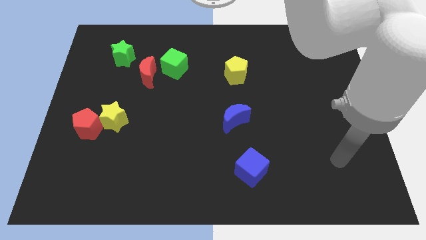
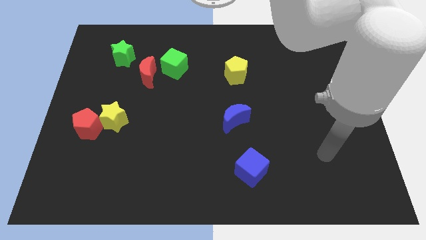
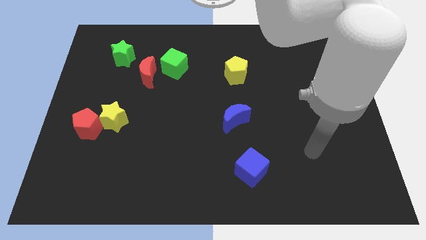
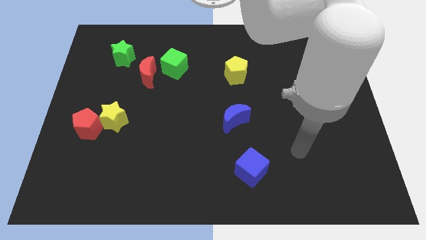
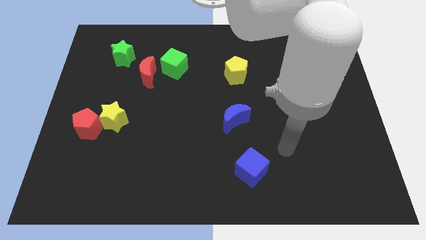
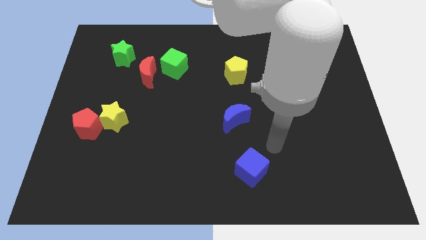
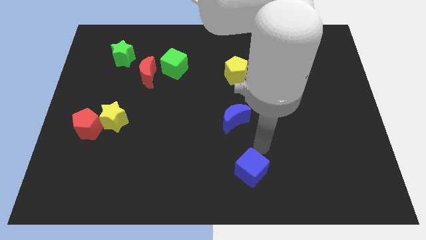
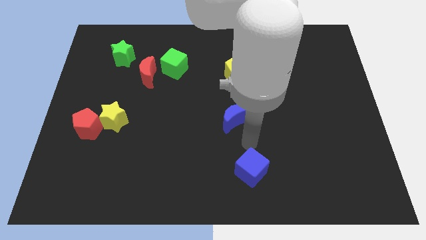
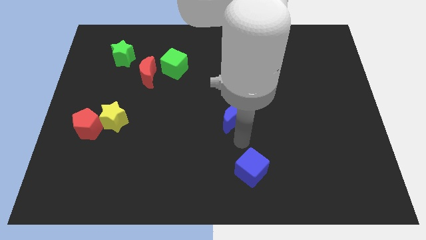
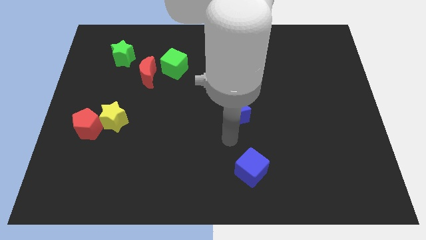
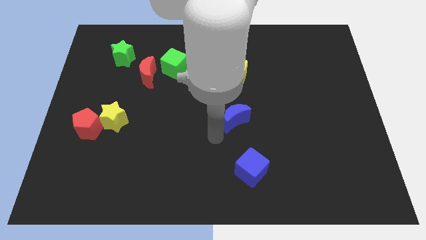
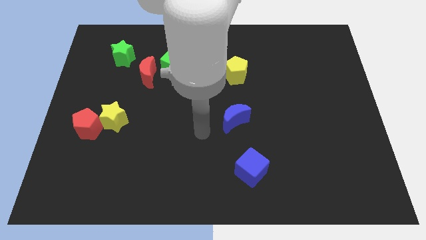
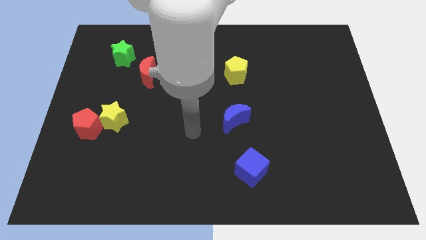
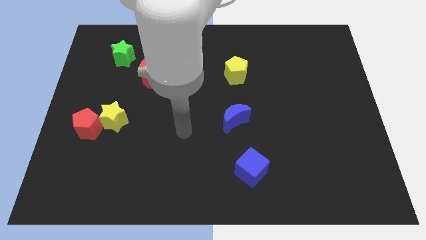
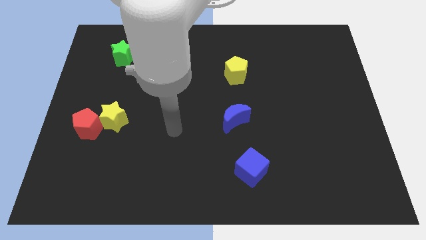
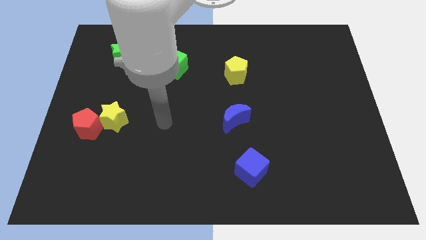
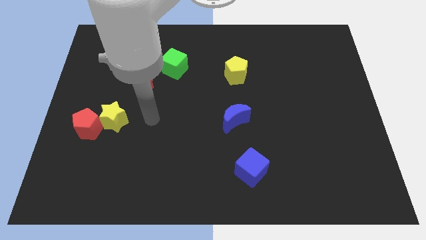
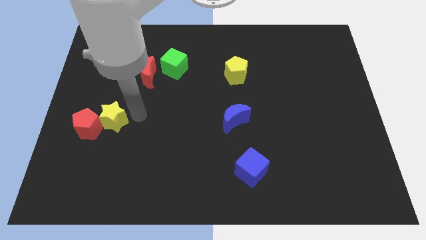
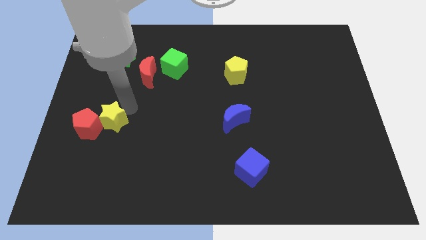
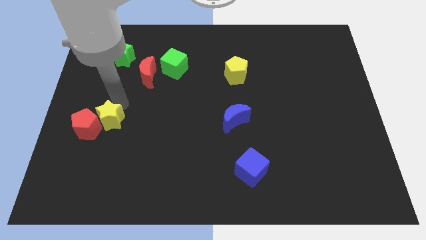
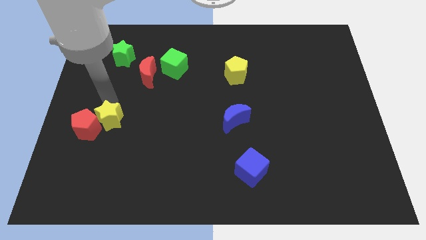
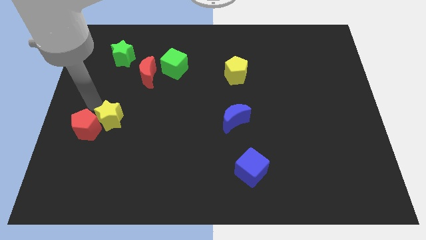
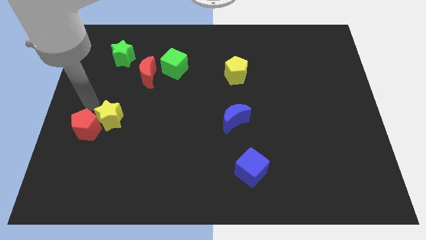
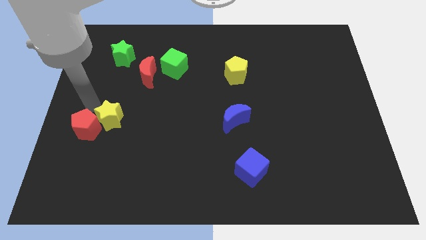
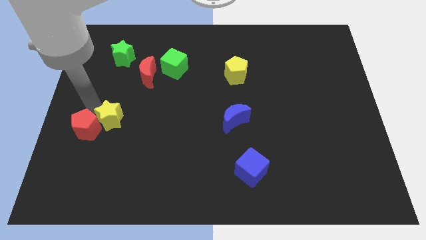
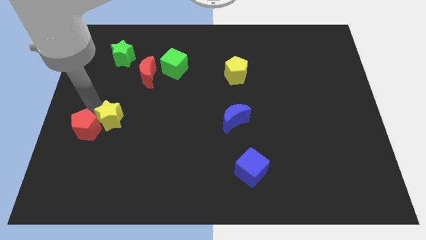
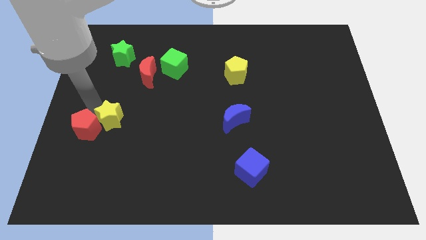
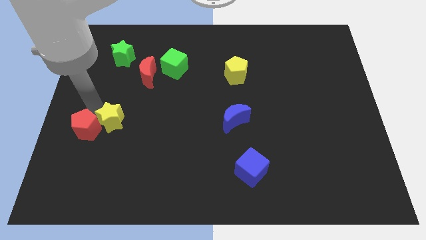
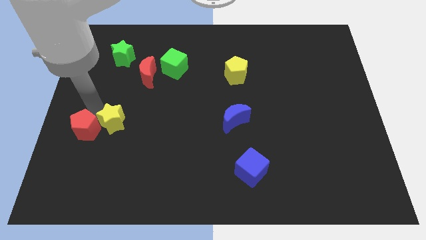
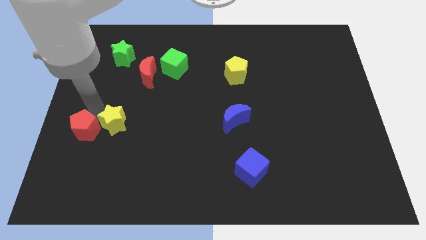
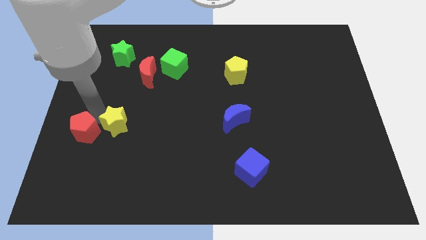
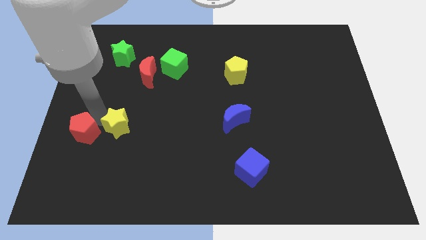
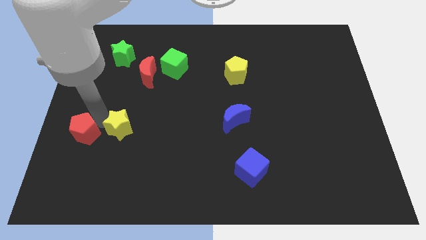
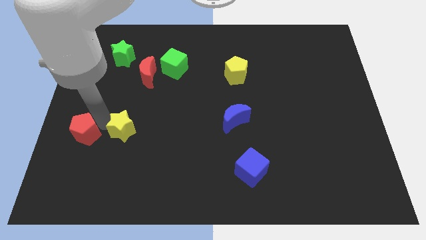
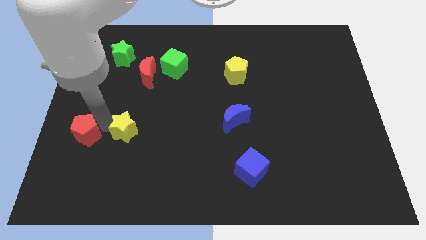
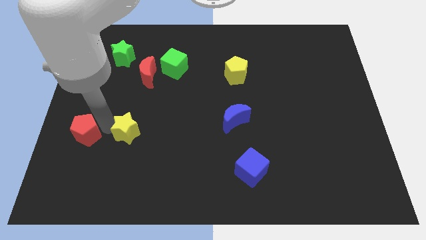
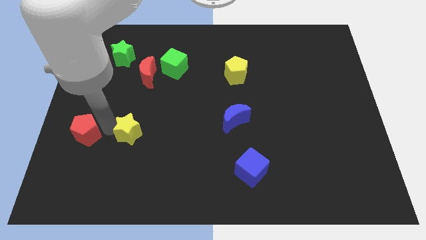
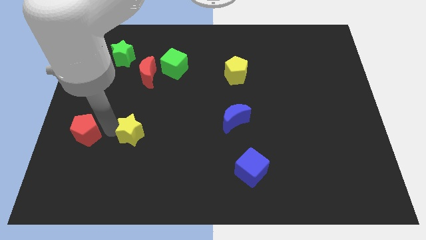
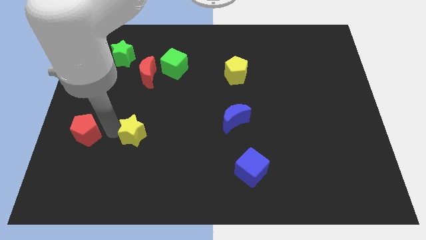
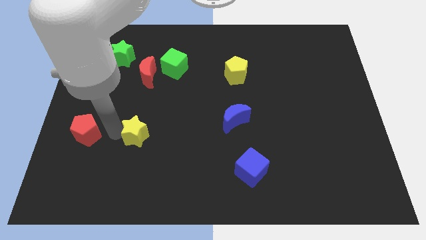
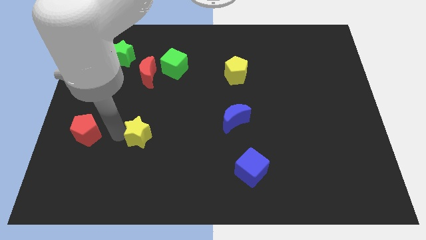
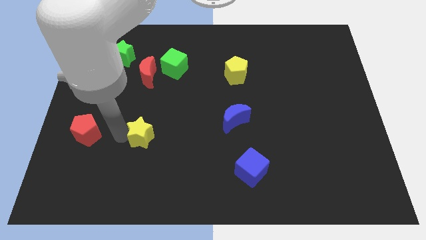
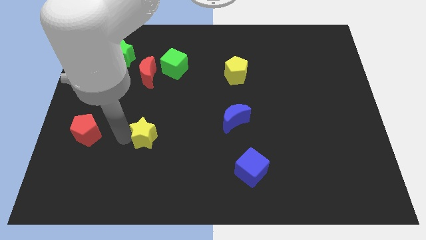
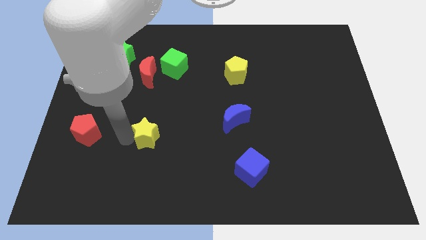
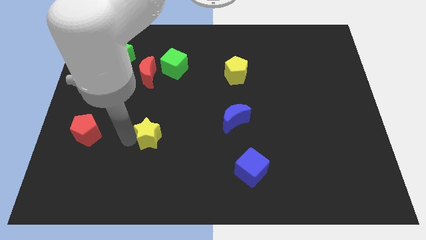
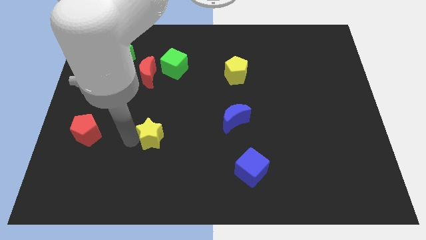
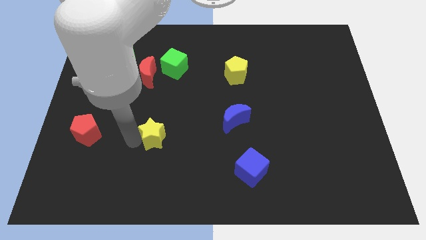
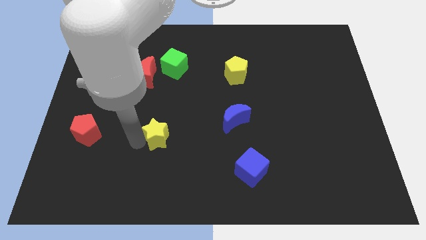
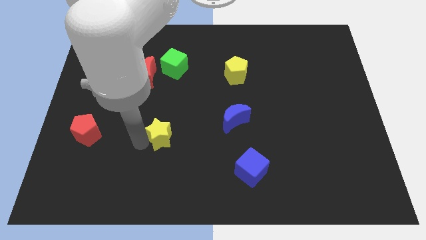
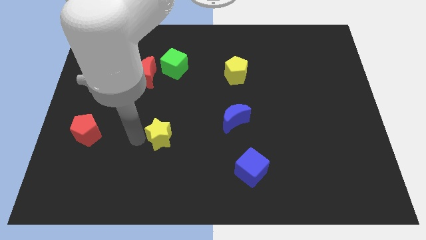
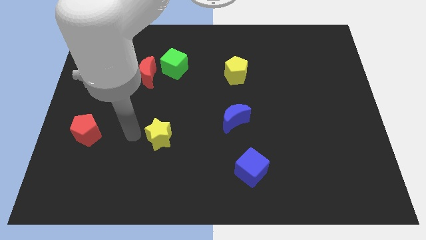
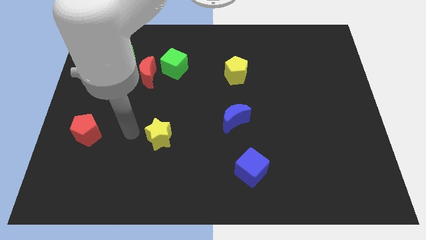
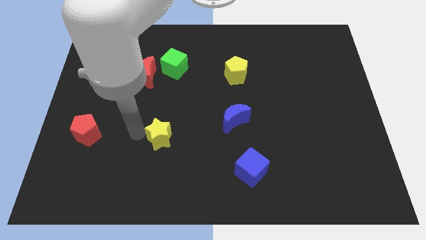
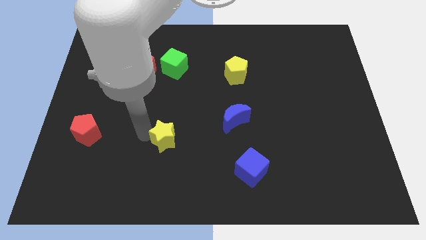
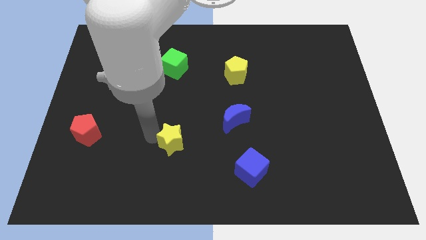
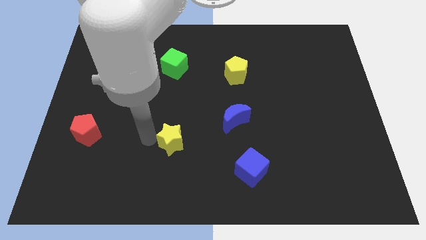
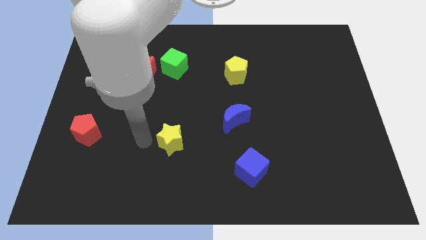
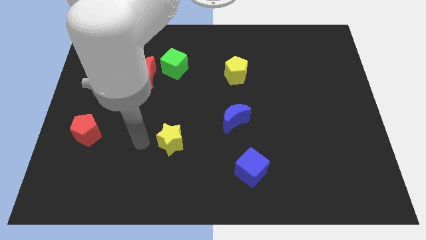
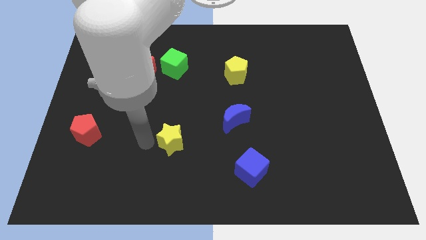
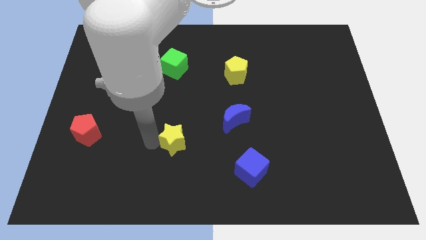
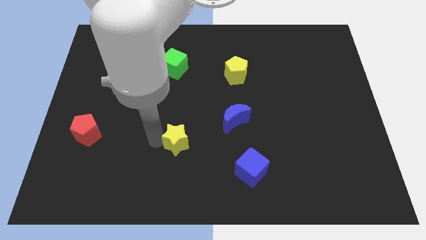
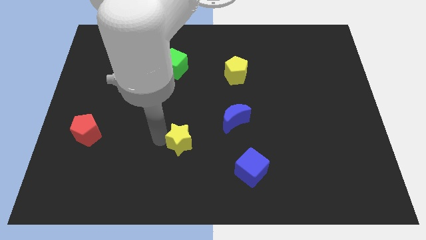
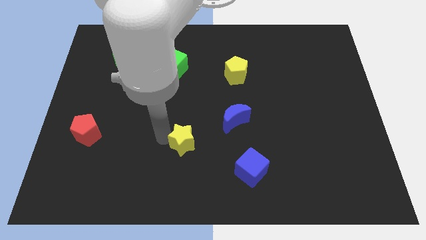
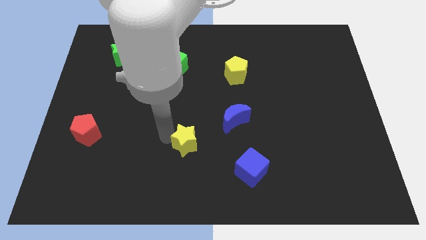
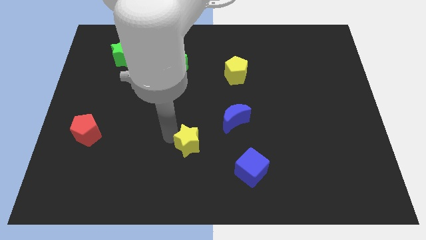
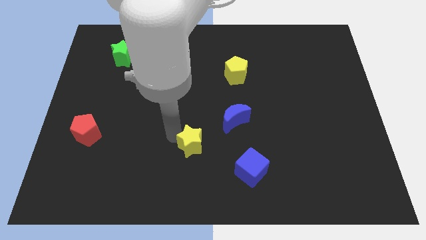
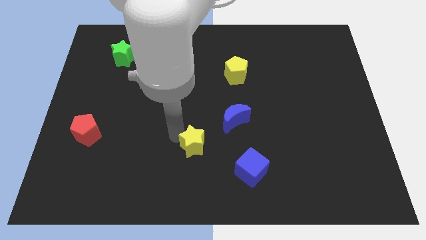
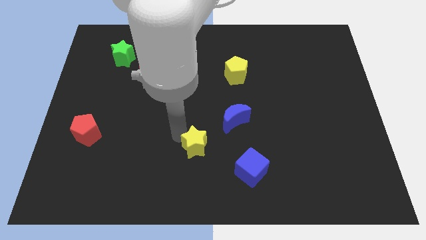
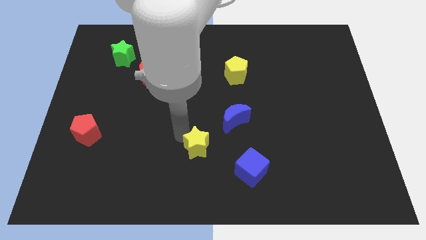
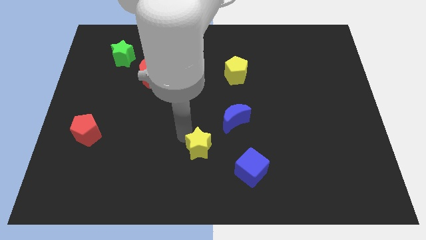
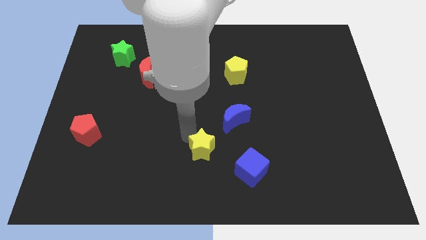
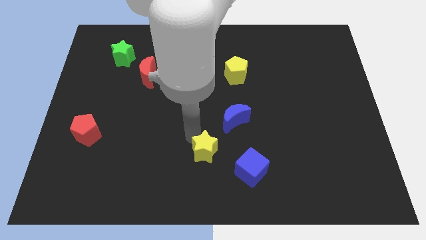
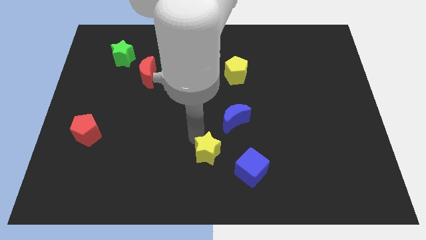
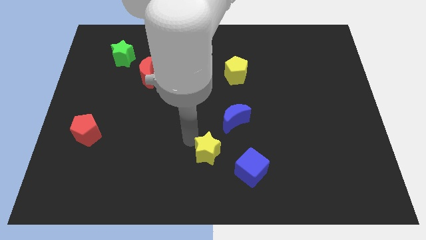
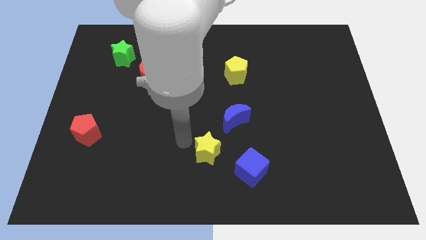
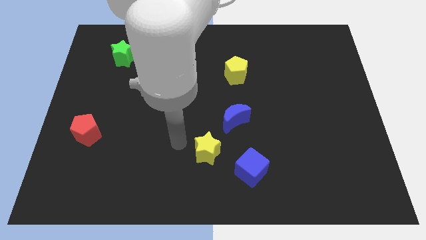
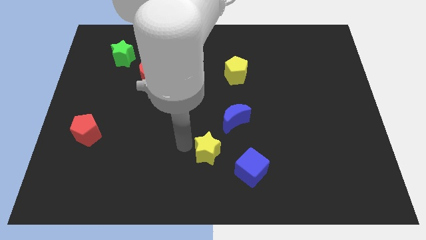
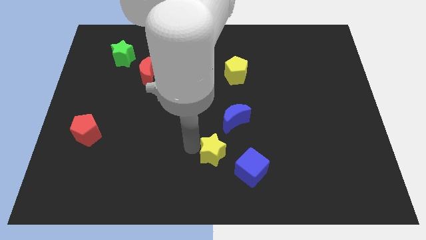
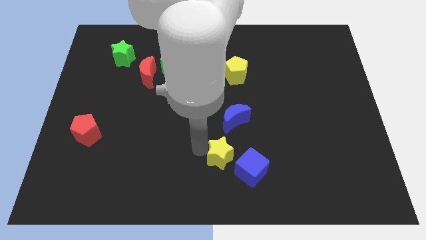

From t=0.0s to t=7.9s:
push the yellow star below the blue moon
